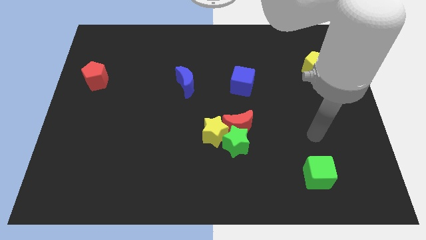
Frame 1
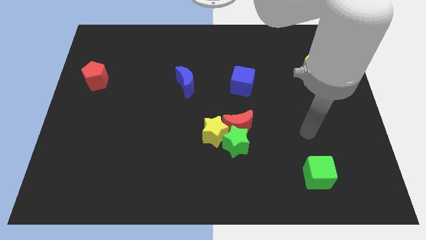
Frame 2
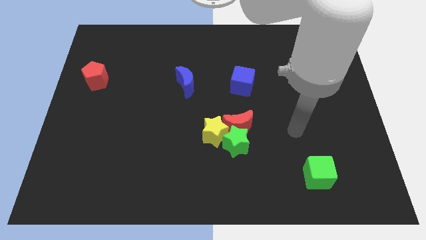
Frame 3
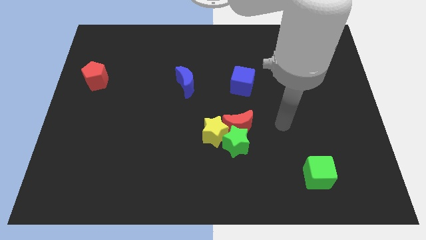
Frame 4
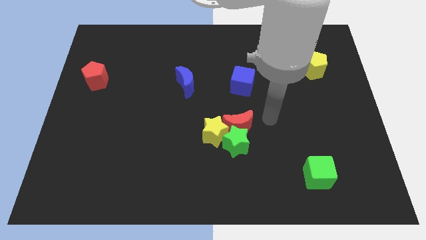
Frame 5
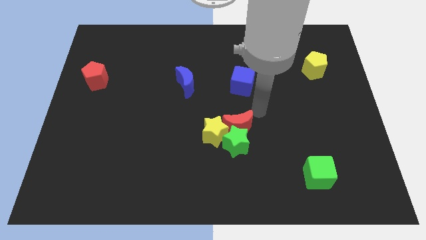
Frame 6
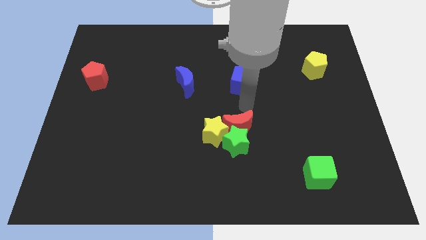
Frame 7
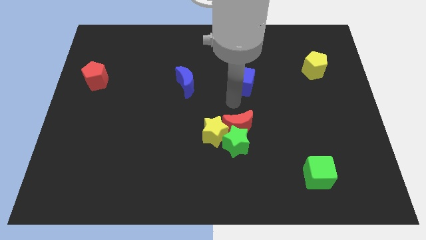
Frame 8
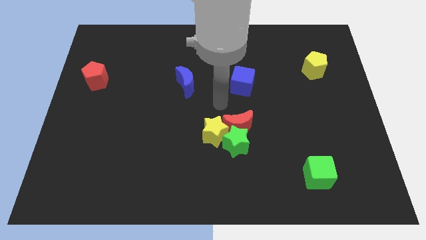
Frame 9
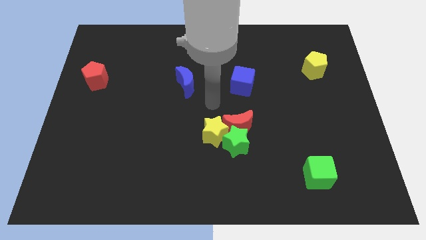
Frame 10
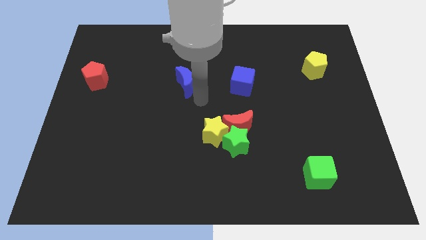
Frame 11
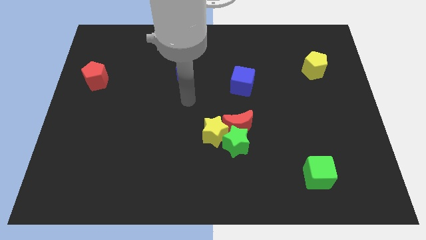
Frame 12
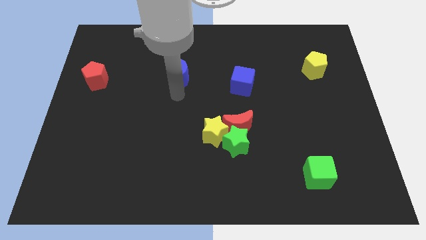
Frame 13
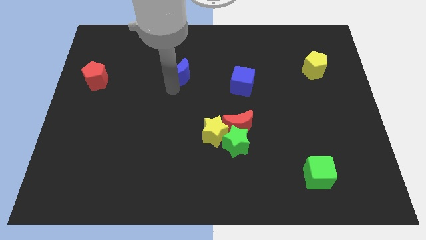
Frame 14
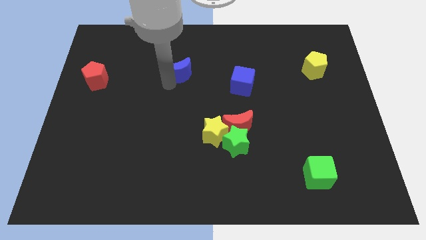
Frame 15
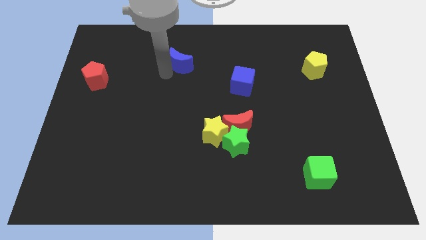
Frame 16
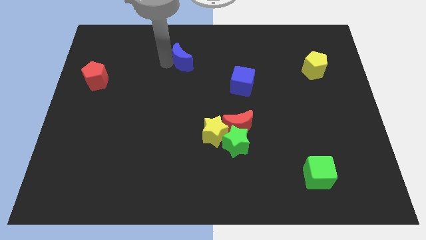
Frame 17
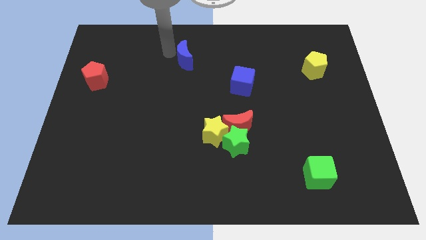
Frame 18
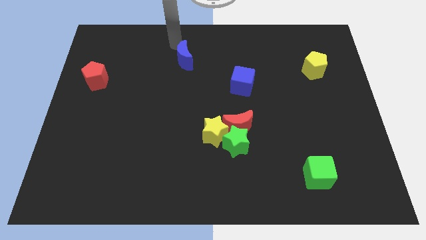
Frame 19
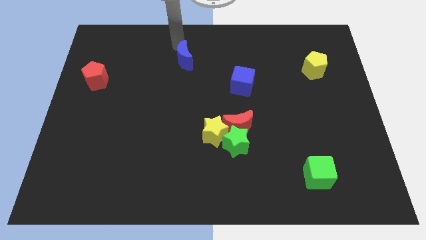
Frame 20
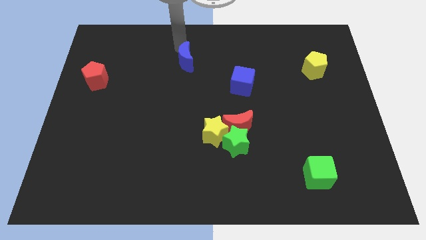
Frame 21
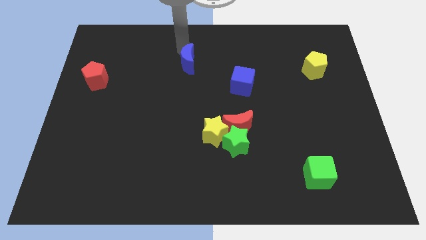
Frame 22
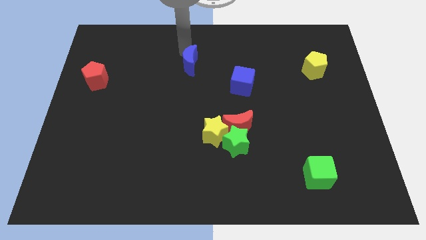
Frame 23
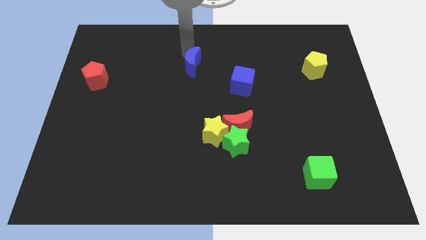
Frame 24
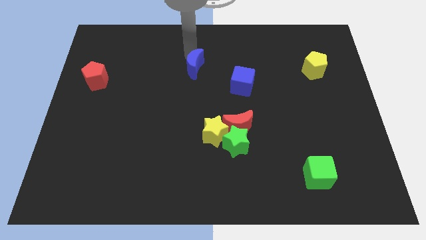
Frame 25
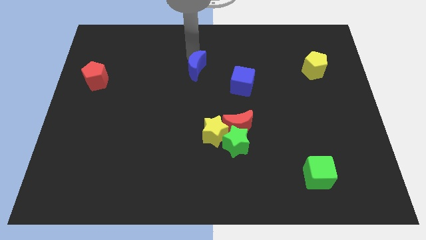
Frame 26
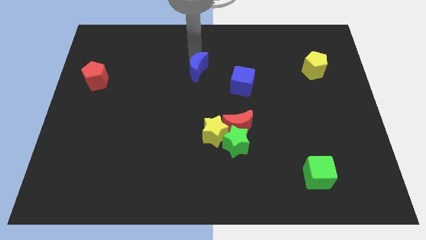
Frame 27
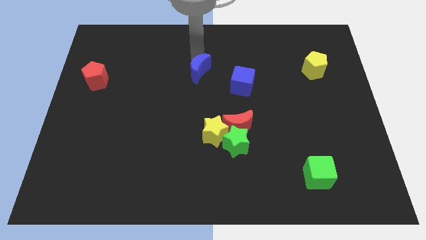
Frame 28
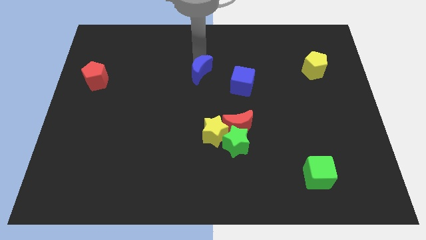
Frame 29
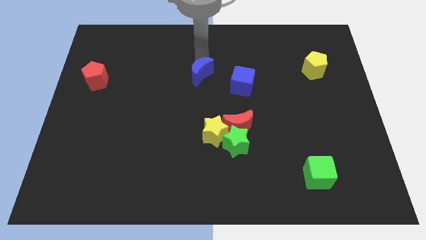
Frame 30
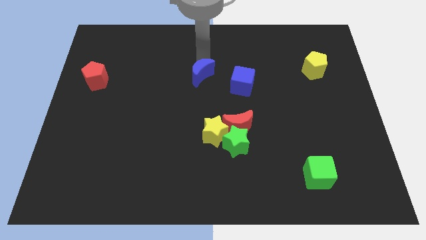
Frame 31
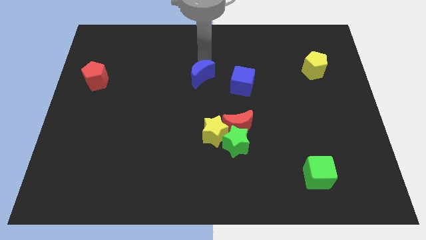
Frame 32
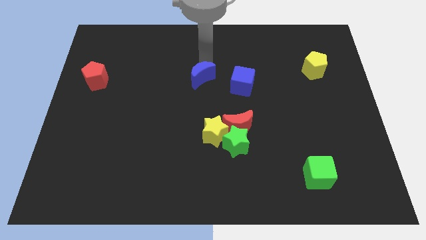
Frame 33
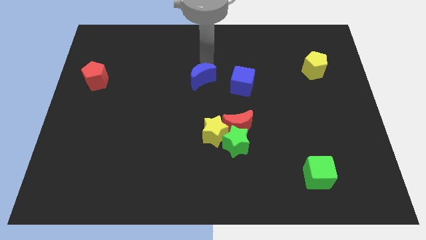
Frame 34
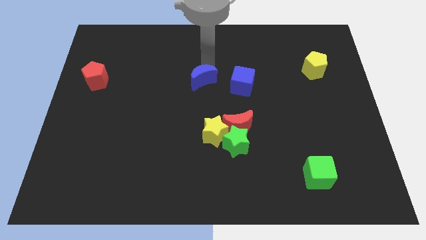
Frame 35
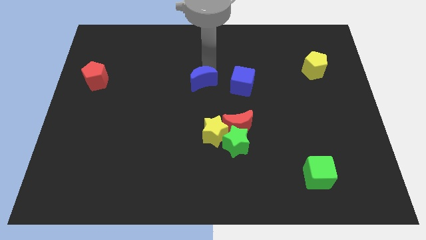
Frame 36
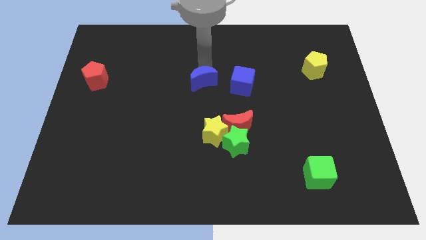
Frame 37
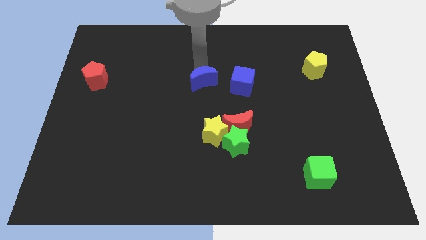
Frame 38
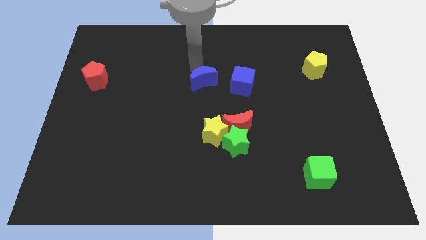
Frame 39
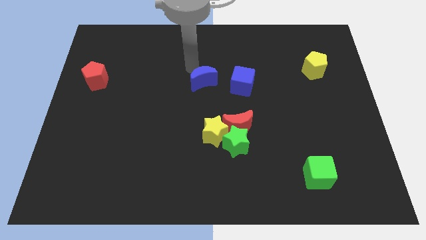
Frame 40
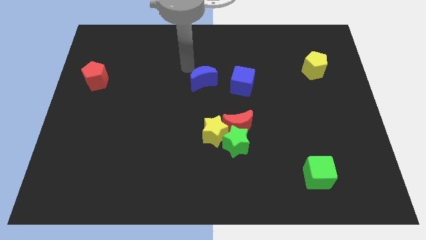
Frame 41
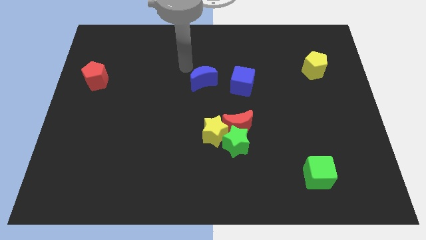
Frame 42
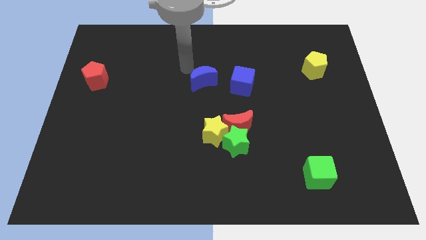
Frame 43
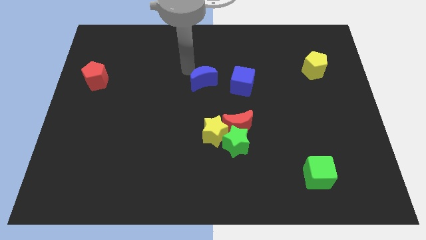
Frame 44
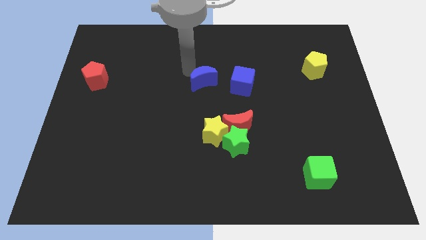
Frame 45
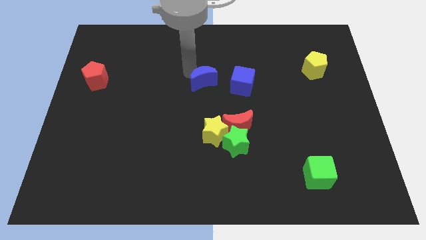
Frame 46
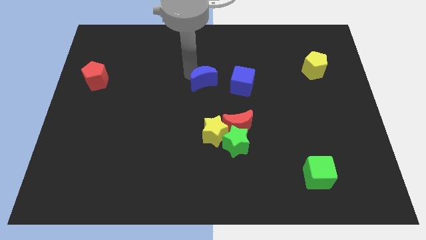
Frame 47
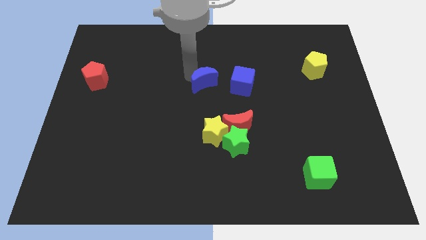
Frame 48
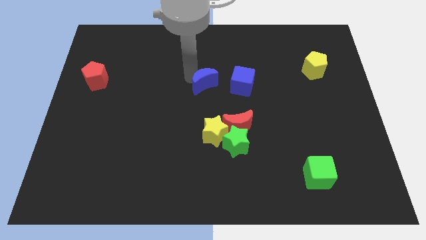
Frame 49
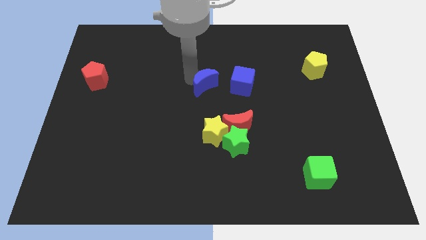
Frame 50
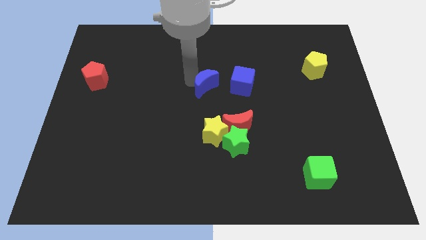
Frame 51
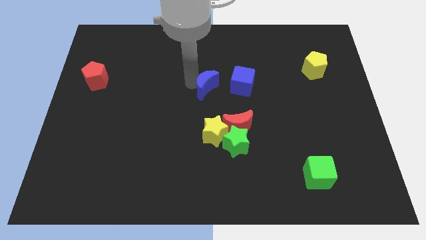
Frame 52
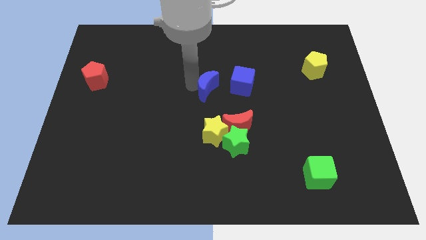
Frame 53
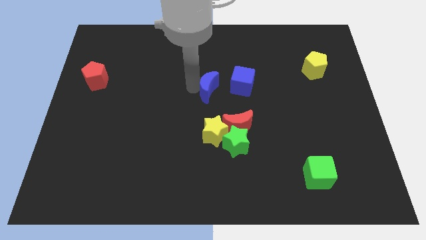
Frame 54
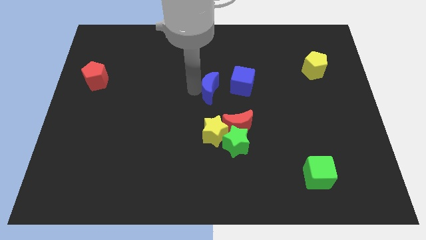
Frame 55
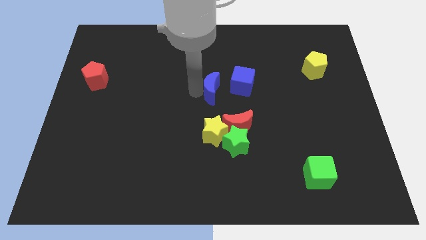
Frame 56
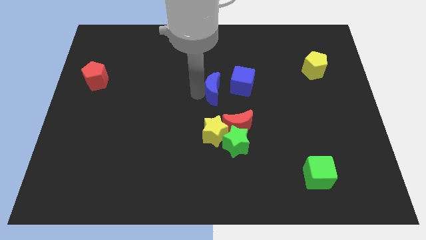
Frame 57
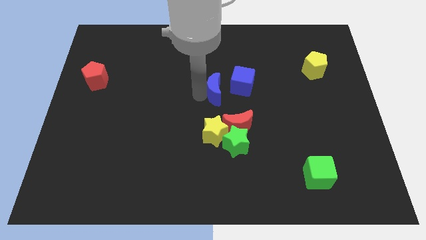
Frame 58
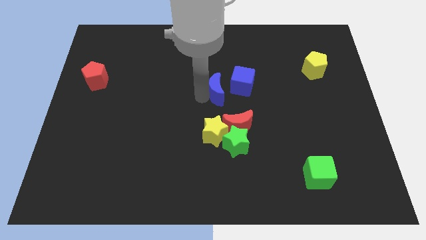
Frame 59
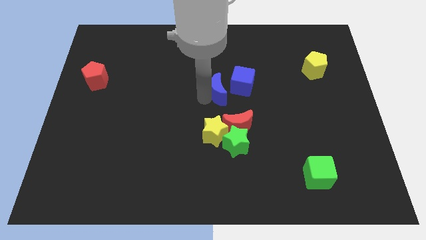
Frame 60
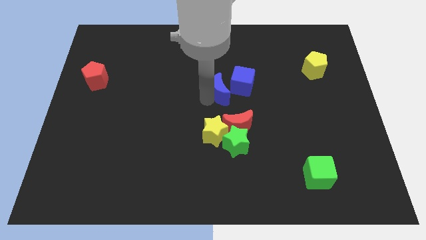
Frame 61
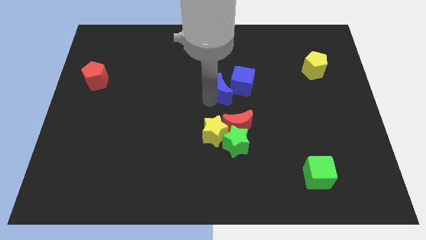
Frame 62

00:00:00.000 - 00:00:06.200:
push the blue moon close to the blue cube

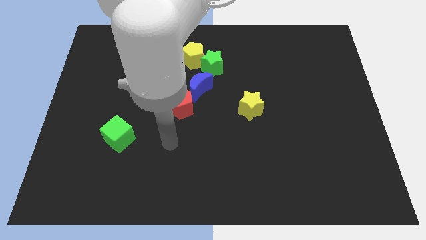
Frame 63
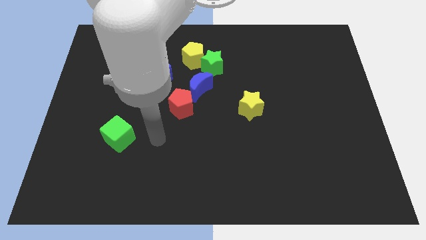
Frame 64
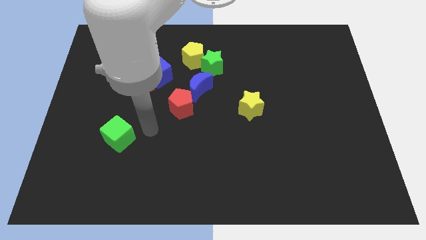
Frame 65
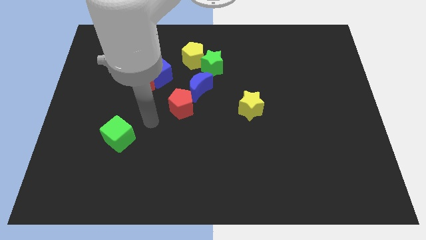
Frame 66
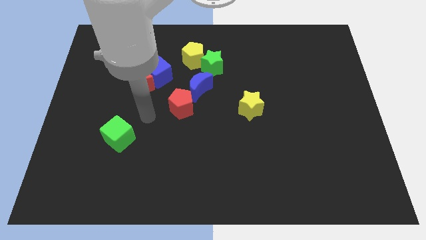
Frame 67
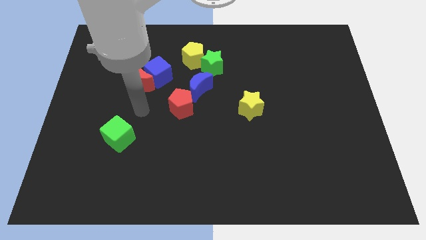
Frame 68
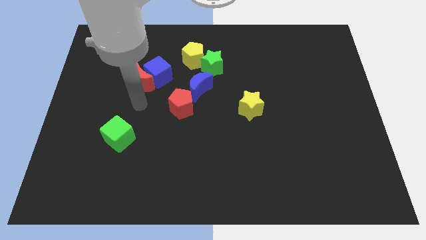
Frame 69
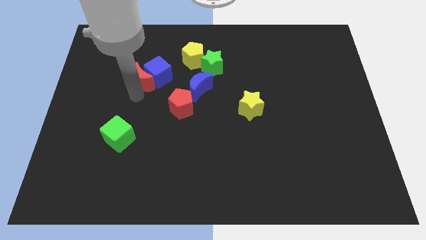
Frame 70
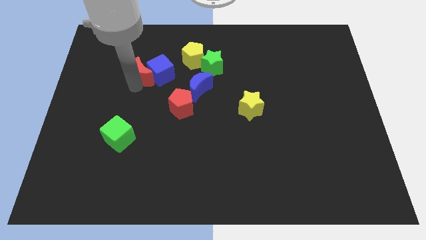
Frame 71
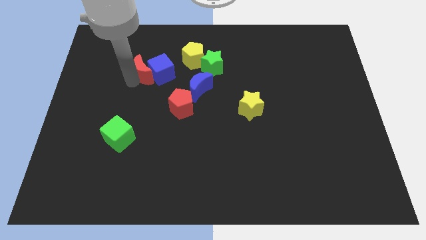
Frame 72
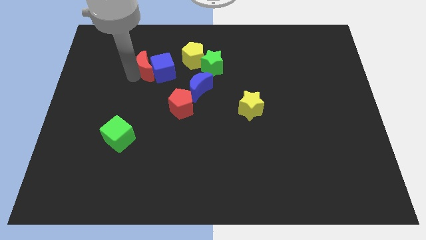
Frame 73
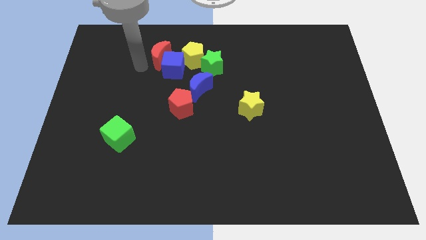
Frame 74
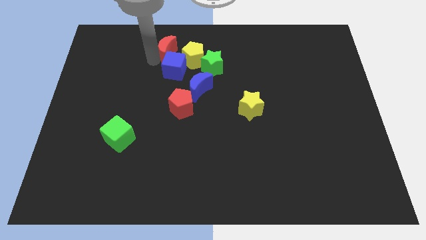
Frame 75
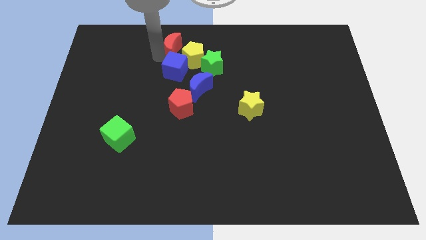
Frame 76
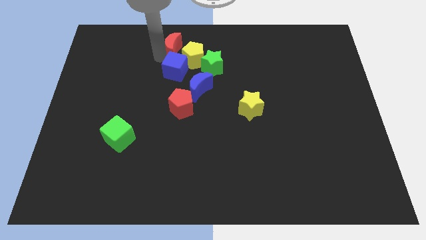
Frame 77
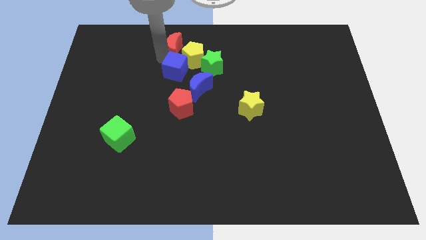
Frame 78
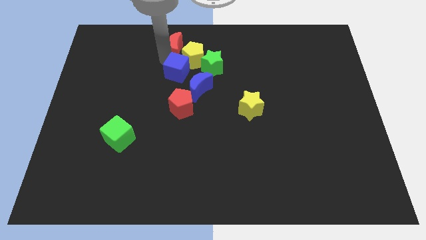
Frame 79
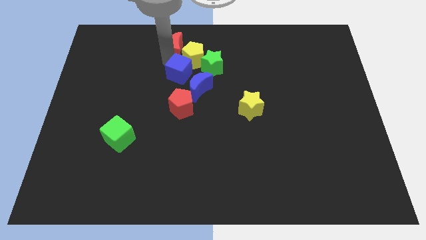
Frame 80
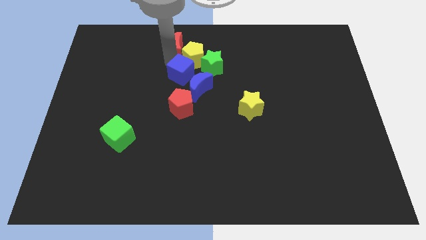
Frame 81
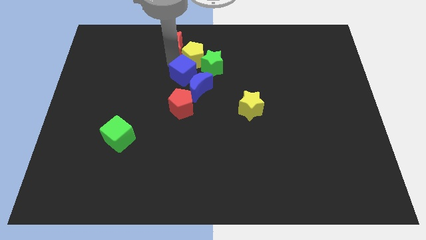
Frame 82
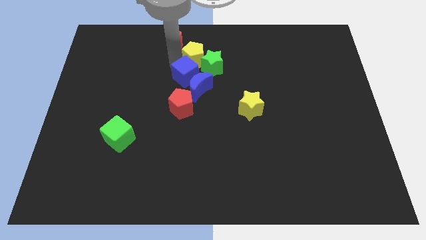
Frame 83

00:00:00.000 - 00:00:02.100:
slide the blue cube close to the blue moon
